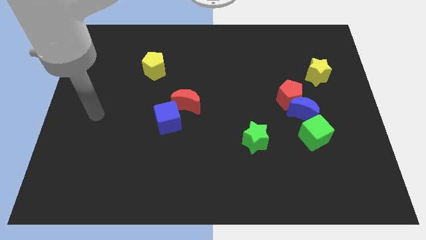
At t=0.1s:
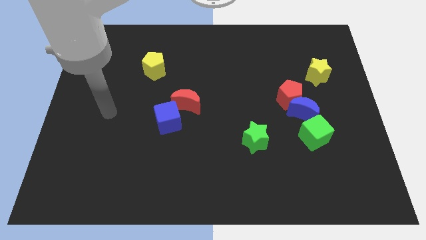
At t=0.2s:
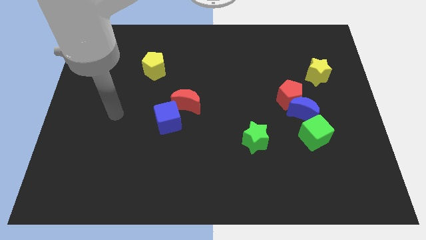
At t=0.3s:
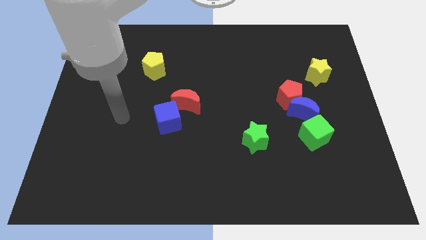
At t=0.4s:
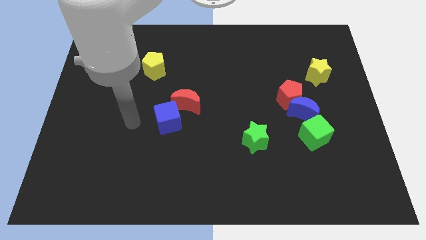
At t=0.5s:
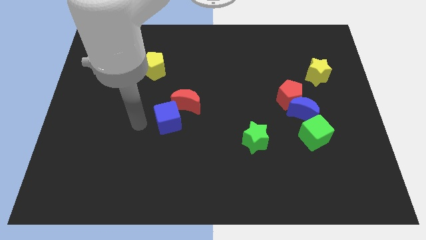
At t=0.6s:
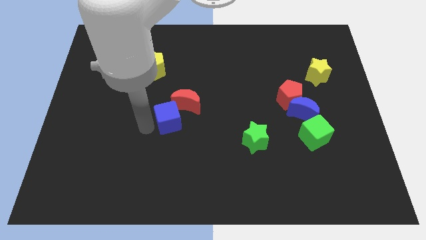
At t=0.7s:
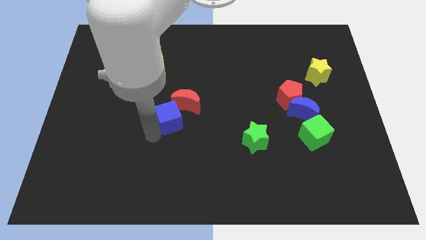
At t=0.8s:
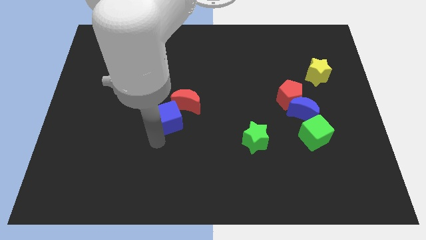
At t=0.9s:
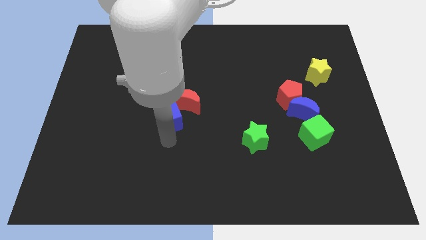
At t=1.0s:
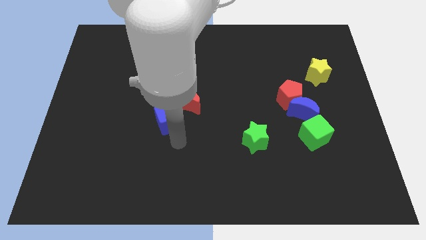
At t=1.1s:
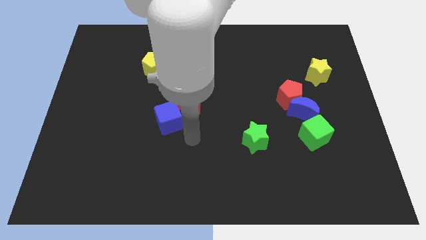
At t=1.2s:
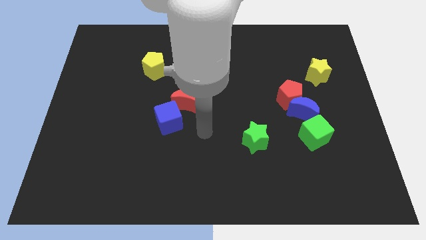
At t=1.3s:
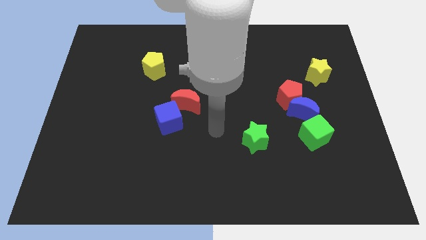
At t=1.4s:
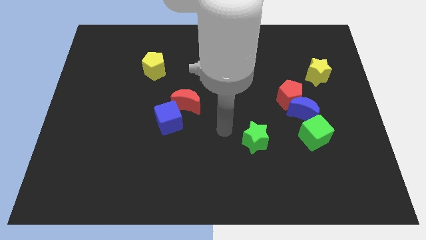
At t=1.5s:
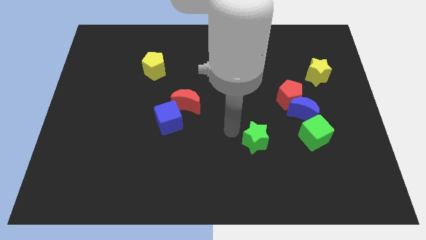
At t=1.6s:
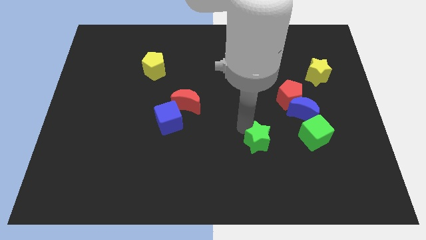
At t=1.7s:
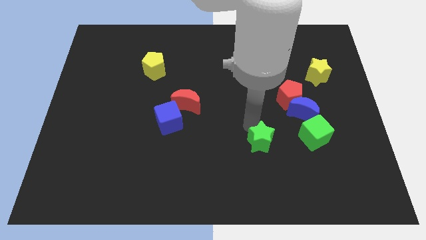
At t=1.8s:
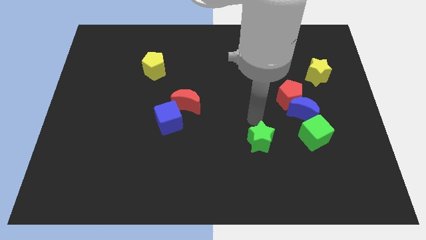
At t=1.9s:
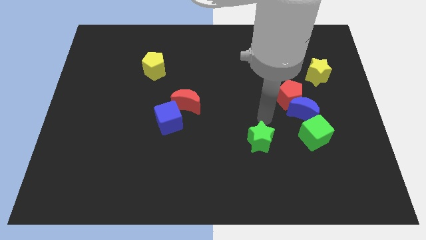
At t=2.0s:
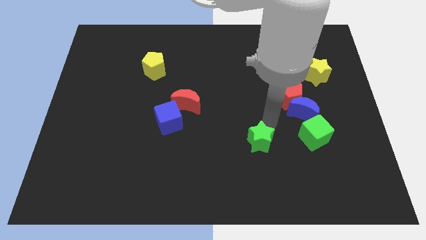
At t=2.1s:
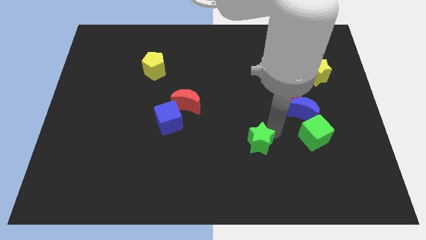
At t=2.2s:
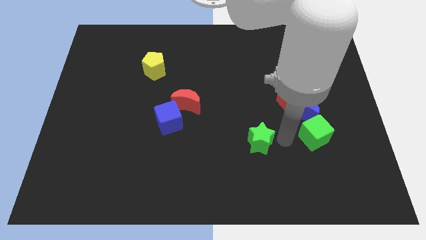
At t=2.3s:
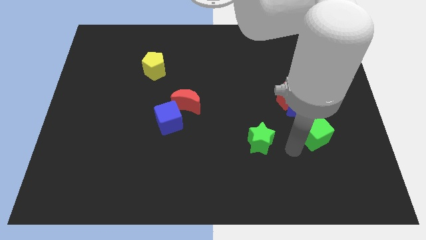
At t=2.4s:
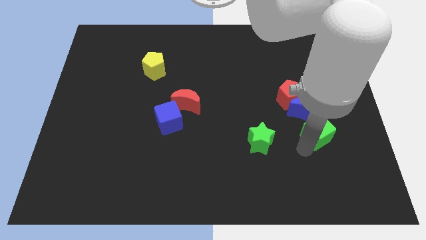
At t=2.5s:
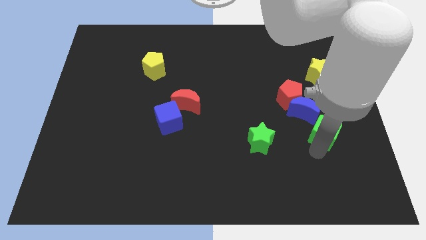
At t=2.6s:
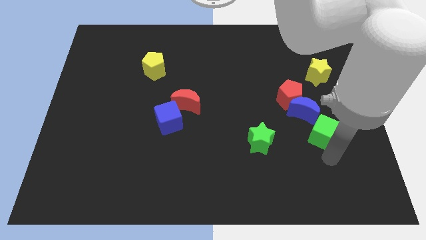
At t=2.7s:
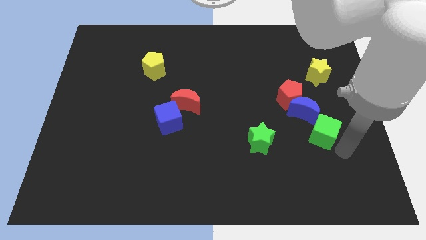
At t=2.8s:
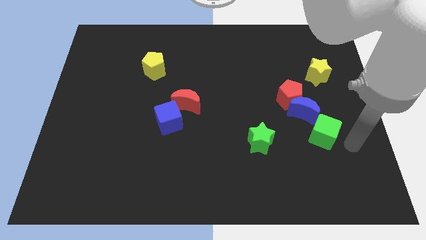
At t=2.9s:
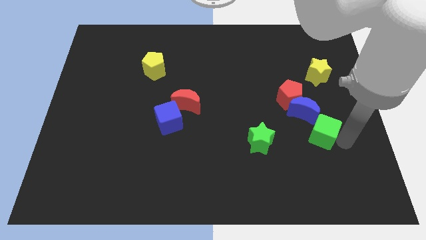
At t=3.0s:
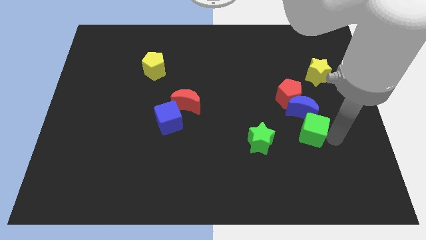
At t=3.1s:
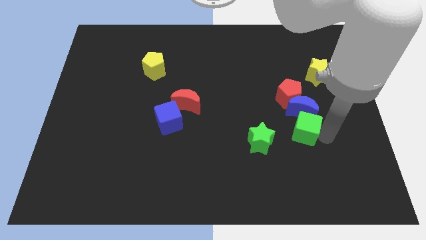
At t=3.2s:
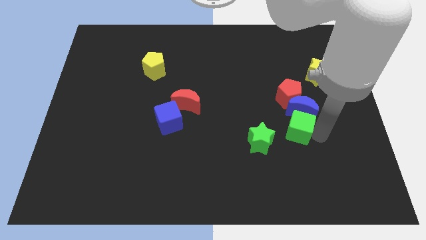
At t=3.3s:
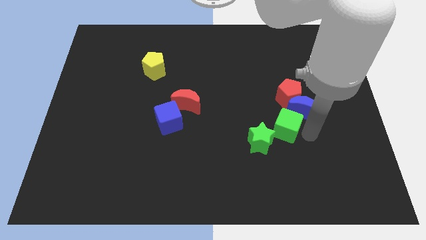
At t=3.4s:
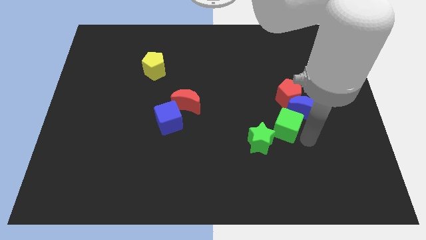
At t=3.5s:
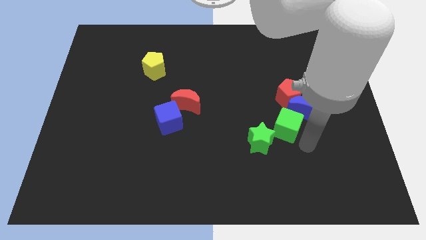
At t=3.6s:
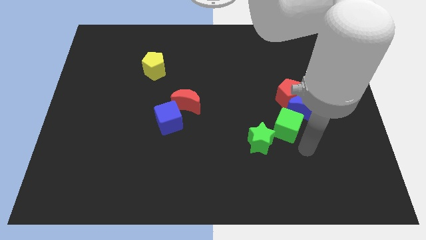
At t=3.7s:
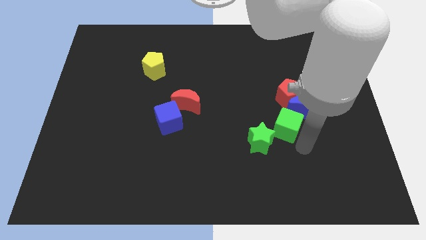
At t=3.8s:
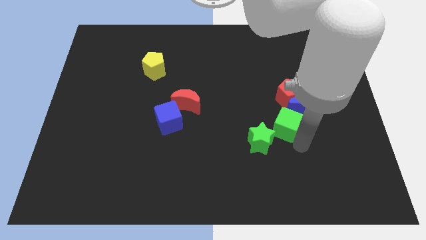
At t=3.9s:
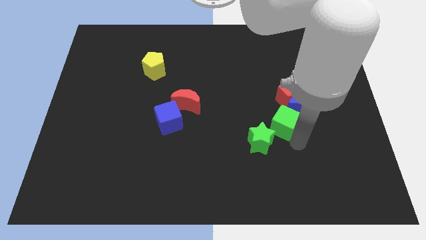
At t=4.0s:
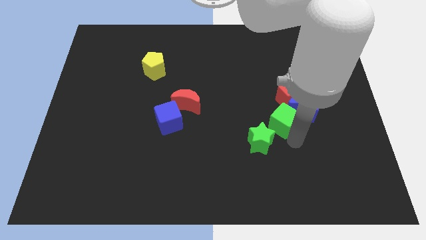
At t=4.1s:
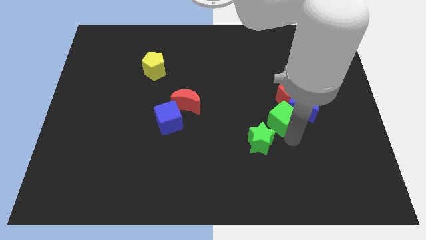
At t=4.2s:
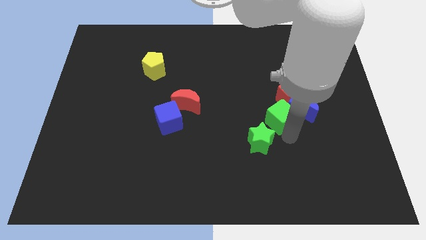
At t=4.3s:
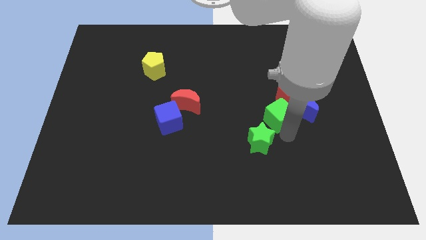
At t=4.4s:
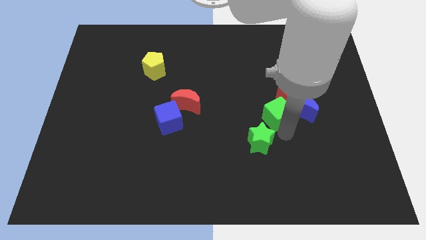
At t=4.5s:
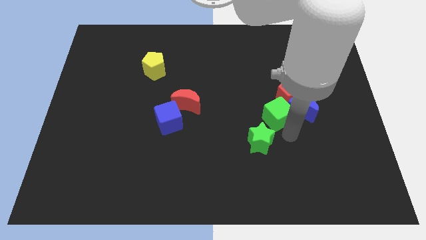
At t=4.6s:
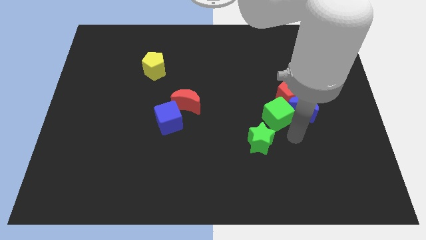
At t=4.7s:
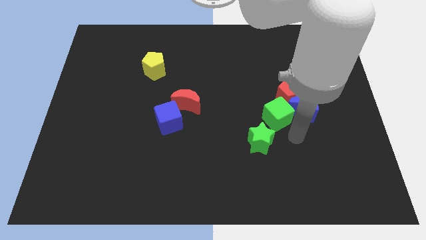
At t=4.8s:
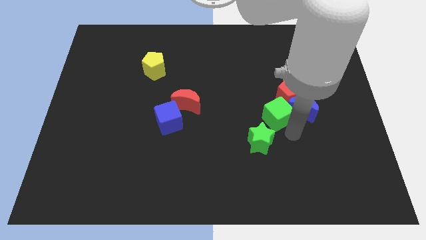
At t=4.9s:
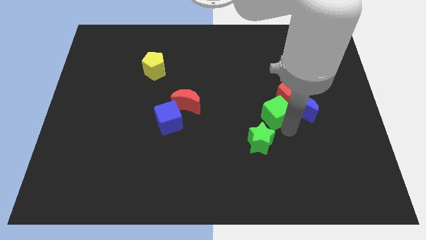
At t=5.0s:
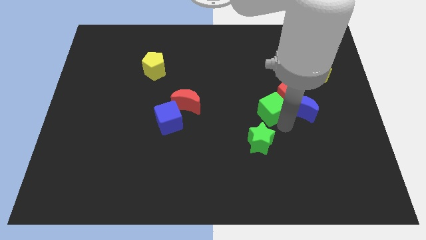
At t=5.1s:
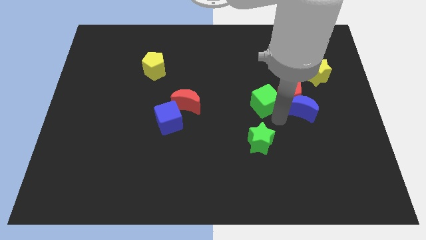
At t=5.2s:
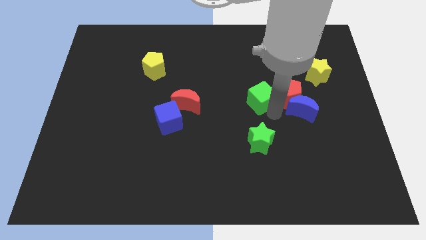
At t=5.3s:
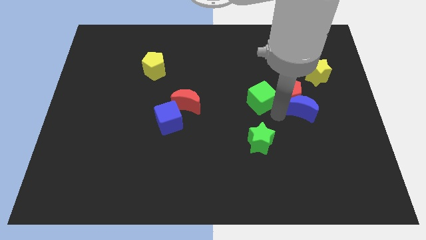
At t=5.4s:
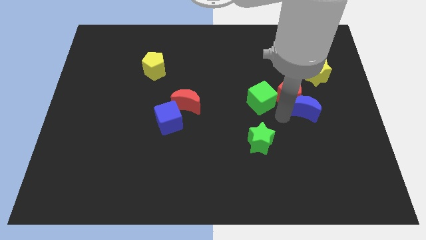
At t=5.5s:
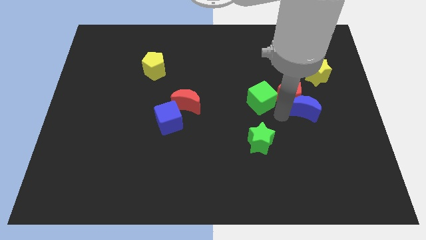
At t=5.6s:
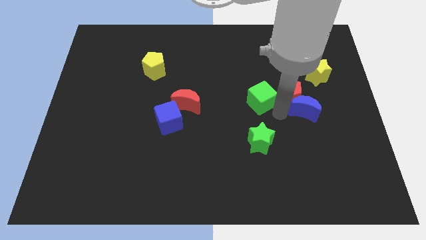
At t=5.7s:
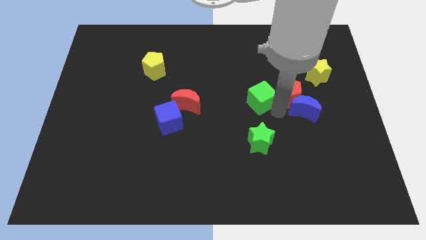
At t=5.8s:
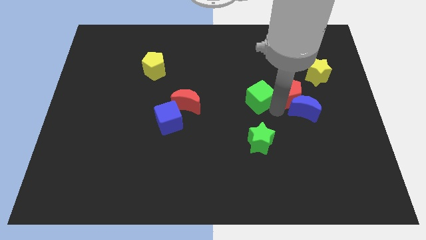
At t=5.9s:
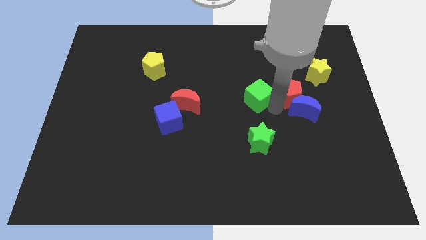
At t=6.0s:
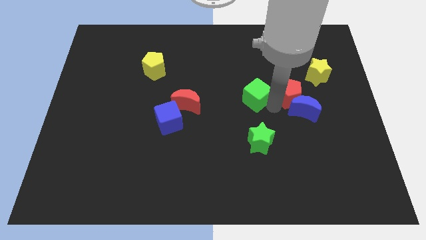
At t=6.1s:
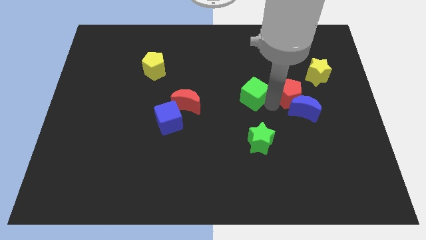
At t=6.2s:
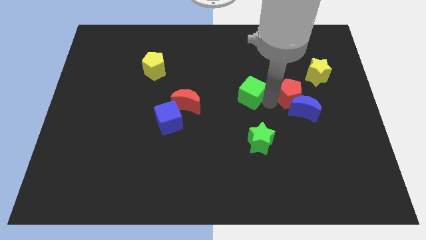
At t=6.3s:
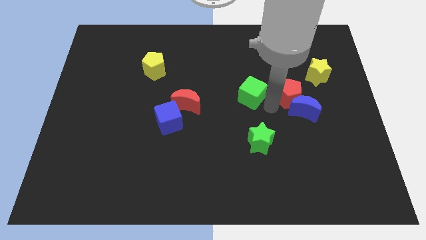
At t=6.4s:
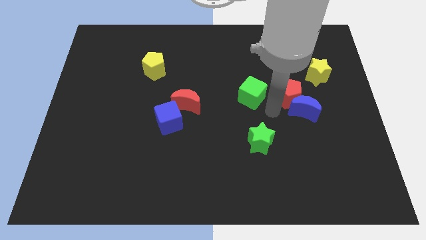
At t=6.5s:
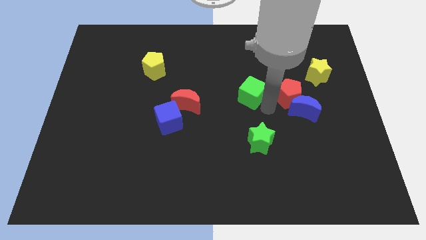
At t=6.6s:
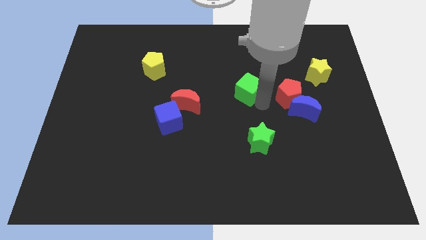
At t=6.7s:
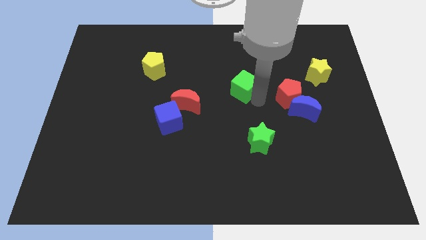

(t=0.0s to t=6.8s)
slide the green cube up and left diagonally

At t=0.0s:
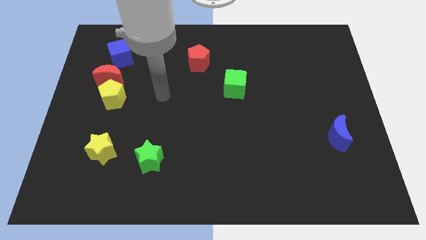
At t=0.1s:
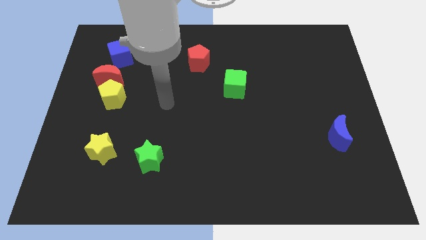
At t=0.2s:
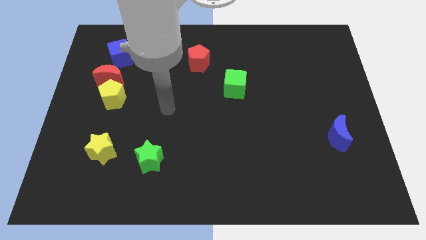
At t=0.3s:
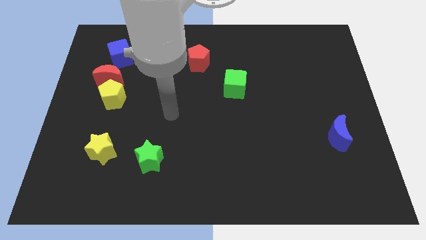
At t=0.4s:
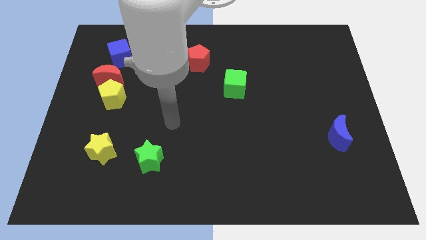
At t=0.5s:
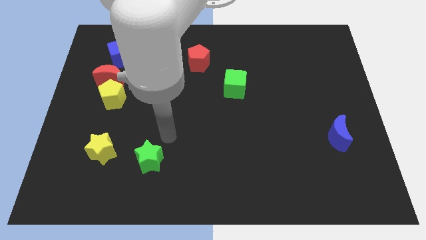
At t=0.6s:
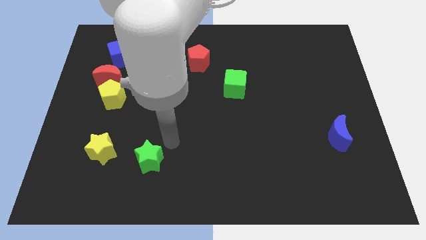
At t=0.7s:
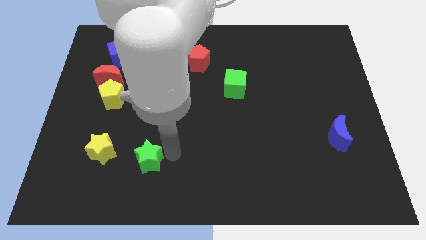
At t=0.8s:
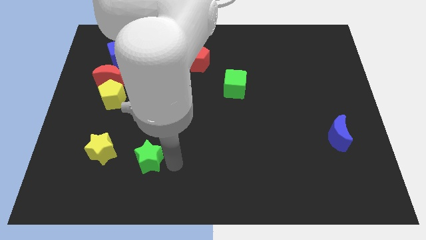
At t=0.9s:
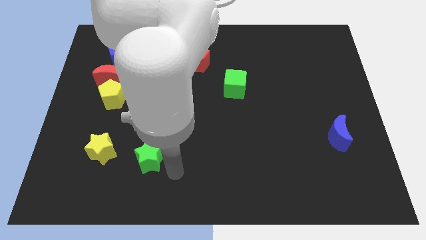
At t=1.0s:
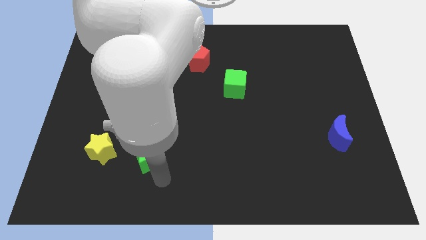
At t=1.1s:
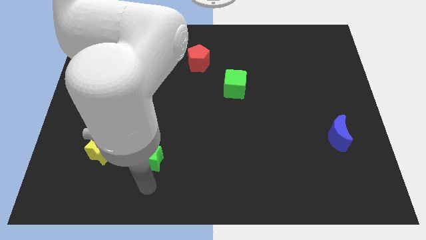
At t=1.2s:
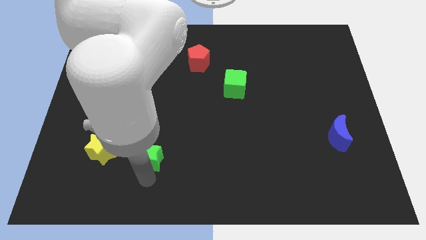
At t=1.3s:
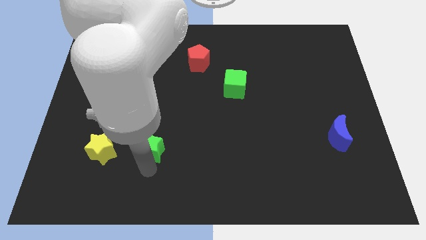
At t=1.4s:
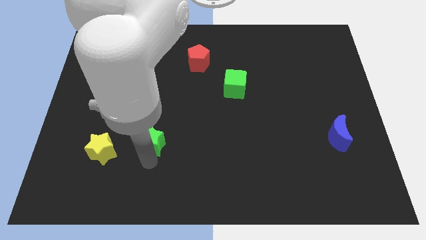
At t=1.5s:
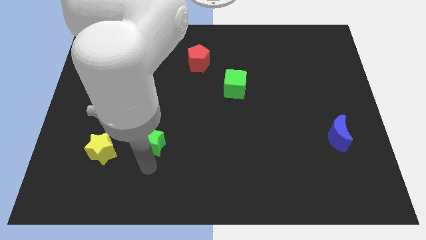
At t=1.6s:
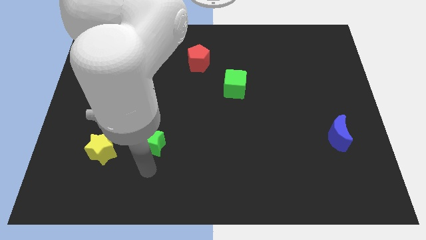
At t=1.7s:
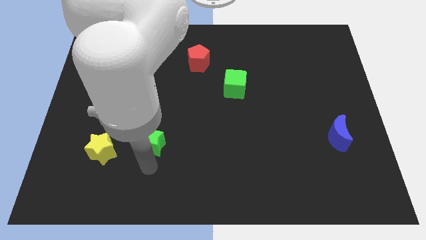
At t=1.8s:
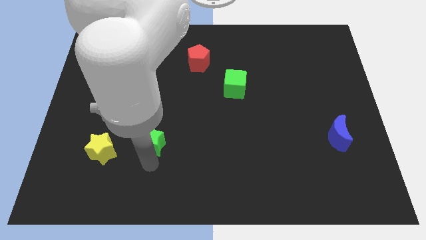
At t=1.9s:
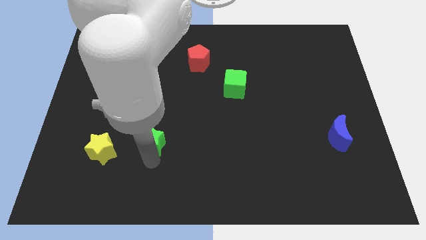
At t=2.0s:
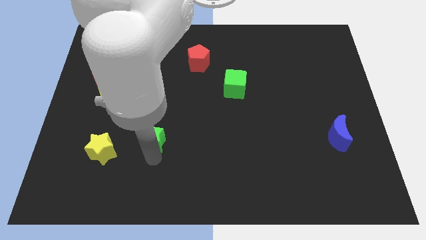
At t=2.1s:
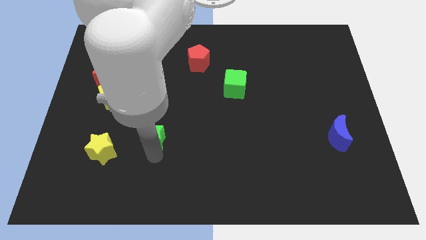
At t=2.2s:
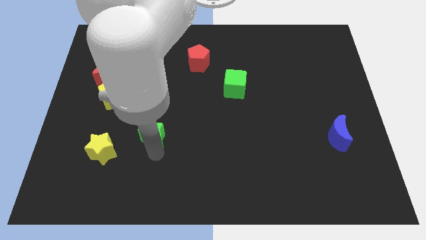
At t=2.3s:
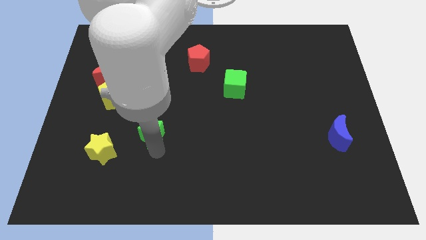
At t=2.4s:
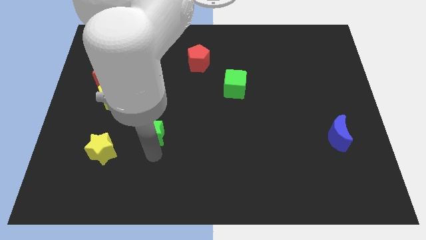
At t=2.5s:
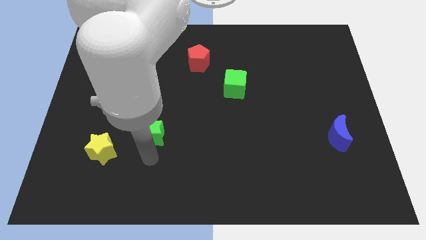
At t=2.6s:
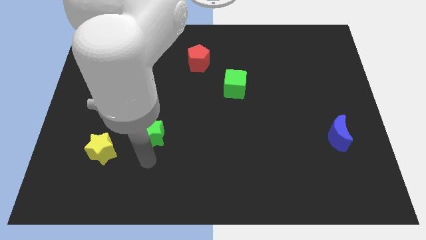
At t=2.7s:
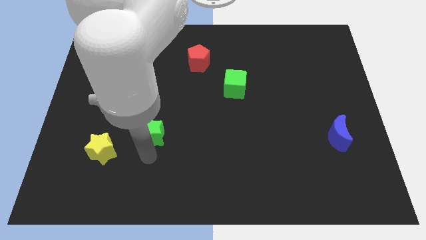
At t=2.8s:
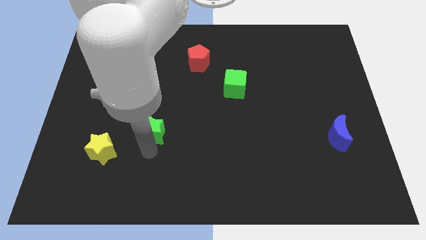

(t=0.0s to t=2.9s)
slightly move the green star upwards
